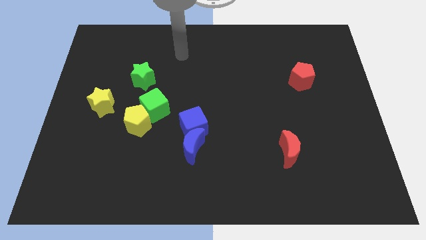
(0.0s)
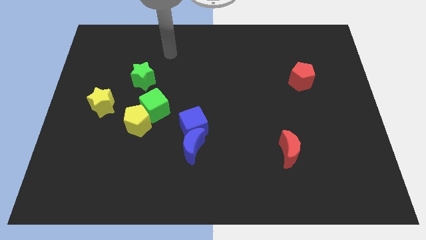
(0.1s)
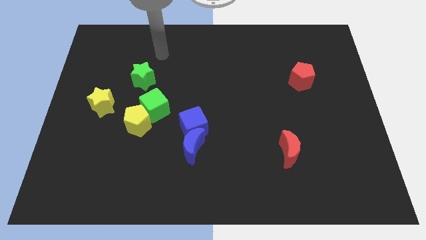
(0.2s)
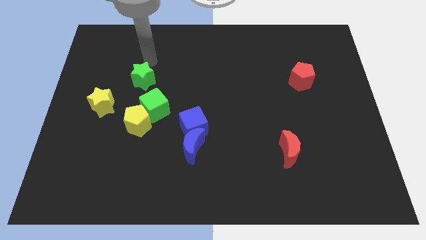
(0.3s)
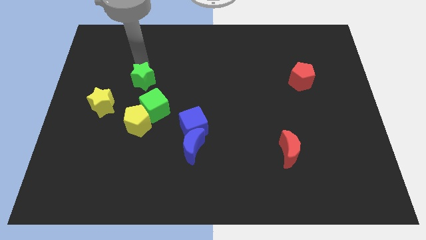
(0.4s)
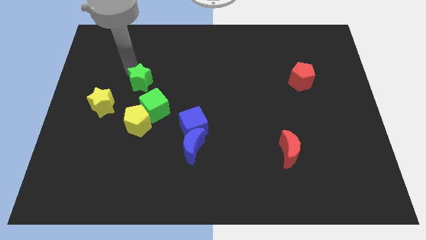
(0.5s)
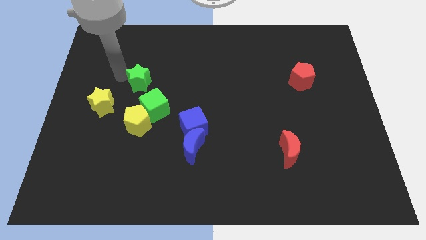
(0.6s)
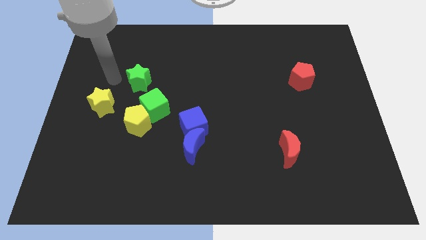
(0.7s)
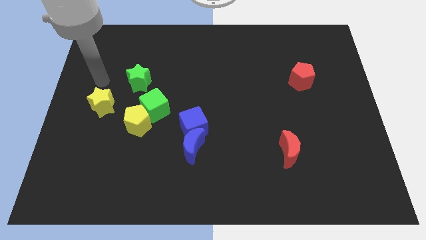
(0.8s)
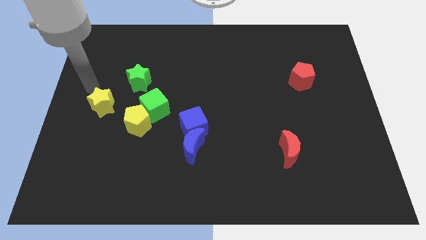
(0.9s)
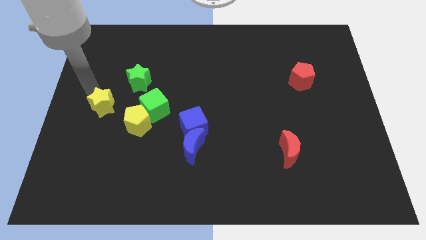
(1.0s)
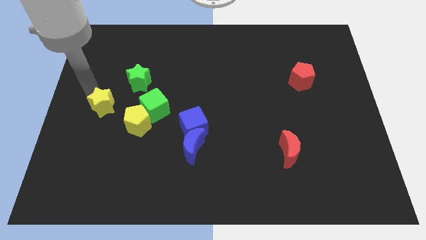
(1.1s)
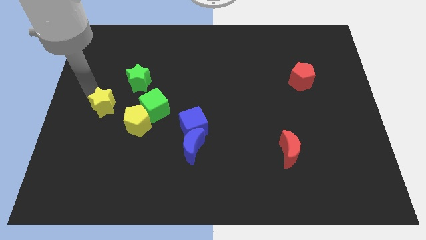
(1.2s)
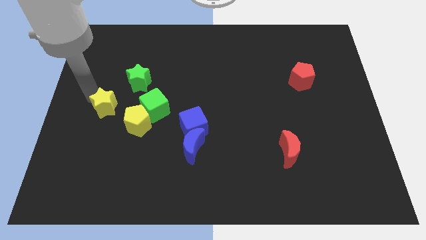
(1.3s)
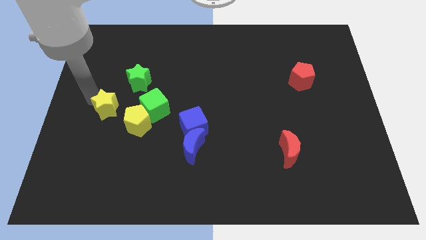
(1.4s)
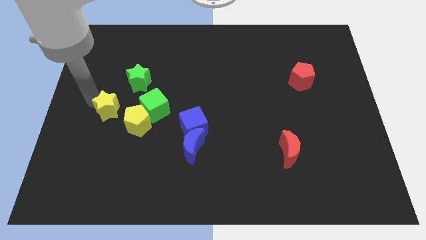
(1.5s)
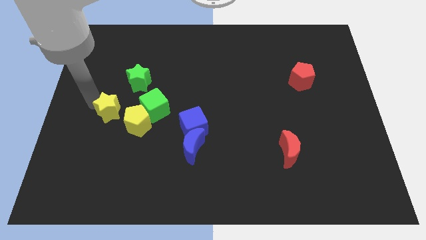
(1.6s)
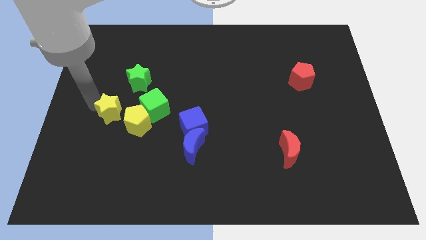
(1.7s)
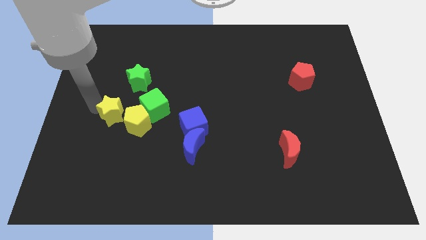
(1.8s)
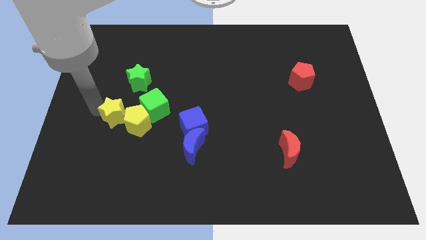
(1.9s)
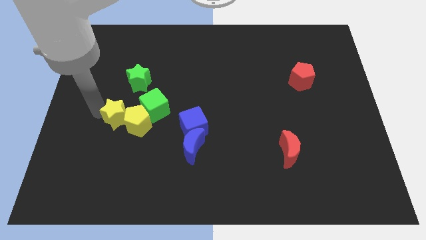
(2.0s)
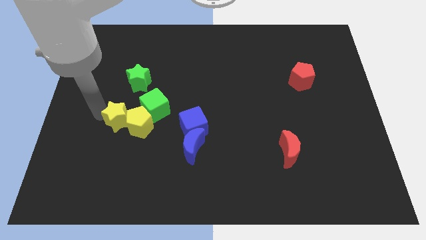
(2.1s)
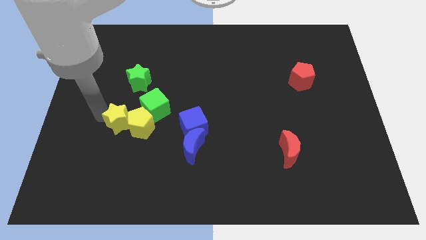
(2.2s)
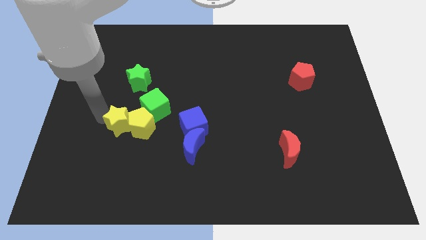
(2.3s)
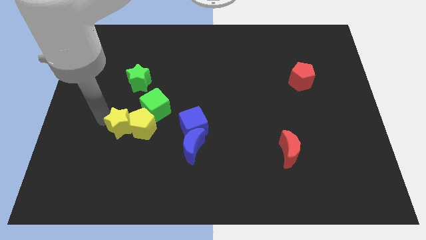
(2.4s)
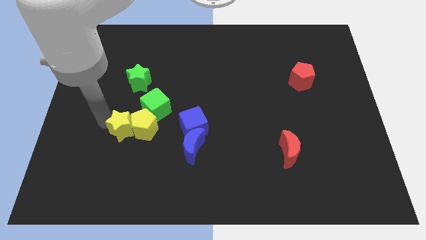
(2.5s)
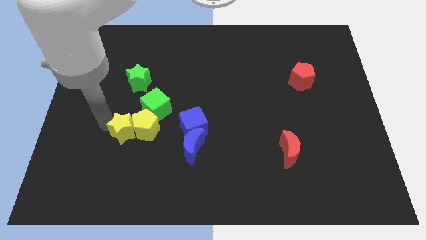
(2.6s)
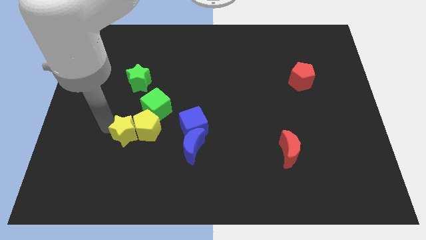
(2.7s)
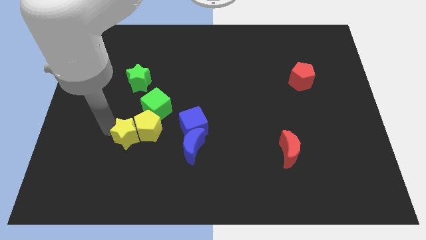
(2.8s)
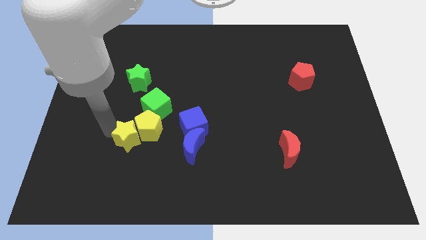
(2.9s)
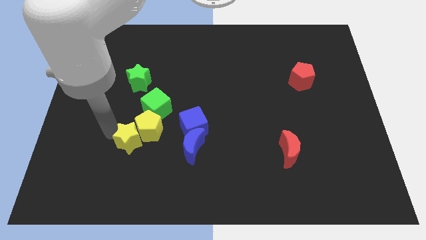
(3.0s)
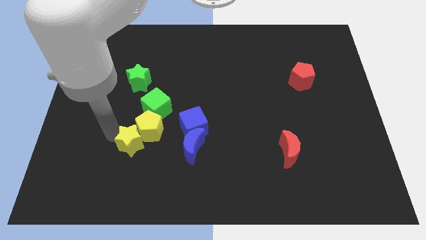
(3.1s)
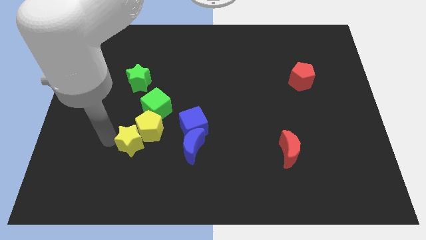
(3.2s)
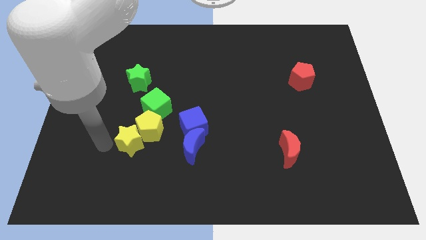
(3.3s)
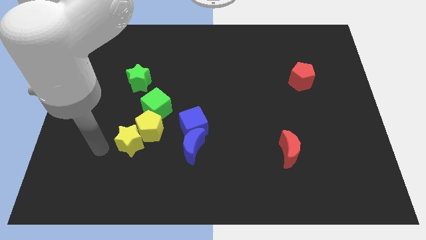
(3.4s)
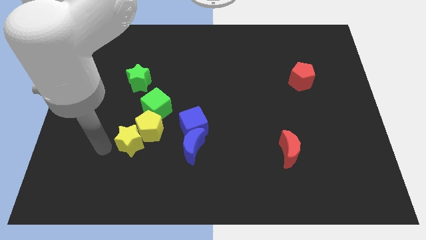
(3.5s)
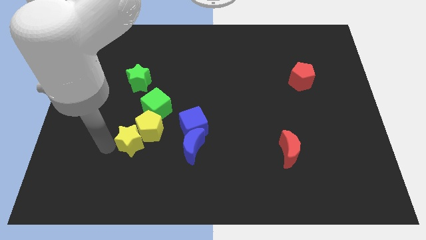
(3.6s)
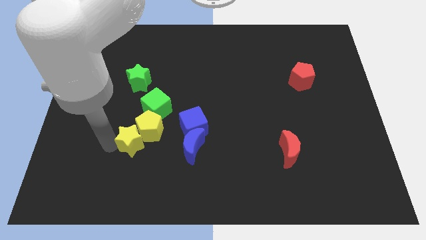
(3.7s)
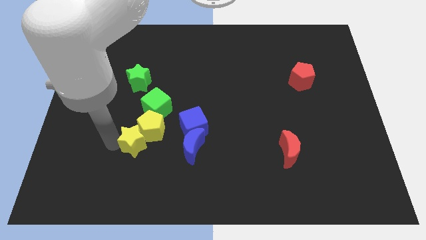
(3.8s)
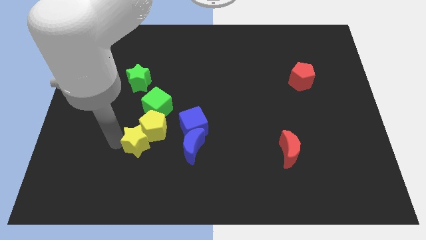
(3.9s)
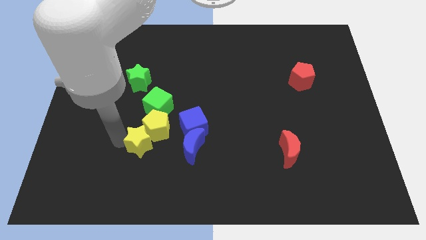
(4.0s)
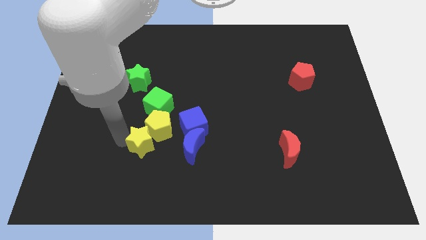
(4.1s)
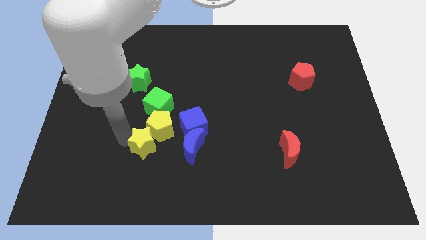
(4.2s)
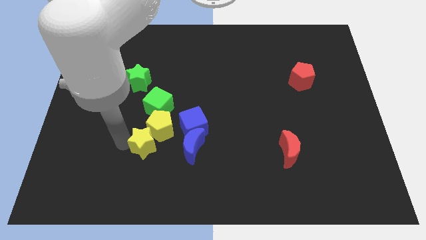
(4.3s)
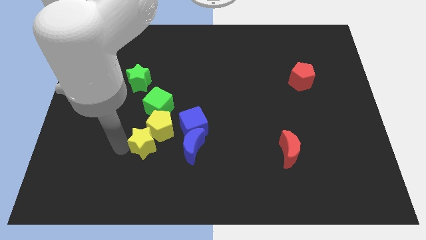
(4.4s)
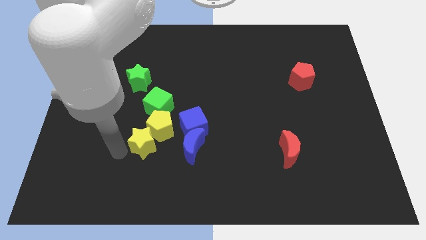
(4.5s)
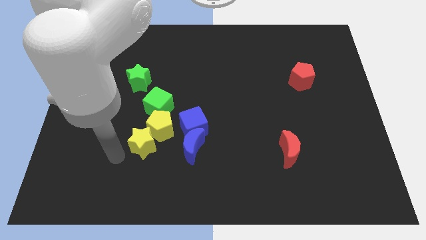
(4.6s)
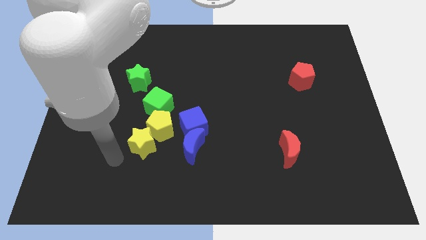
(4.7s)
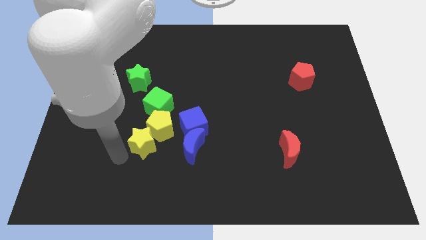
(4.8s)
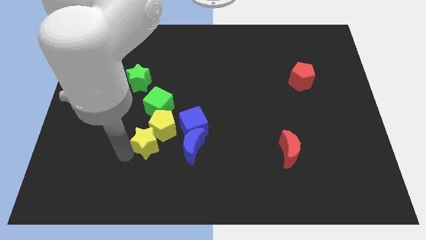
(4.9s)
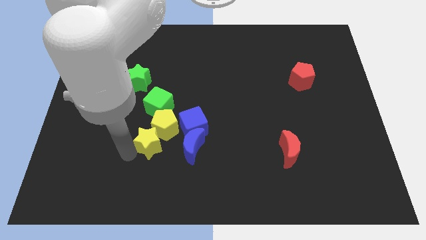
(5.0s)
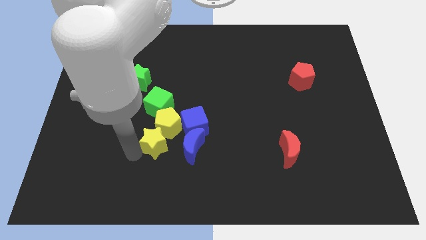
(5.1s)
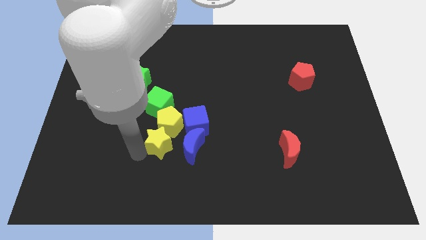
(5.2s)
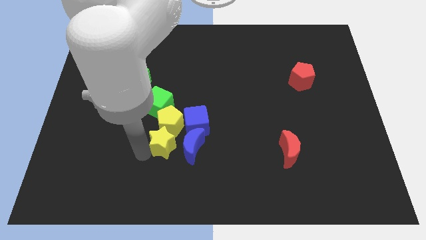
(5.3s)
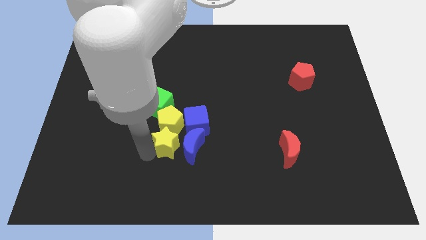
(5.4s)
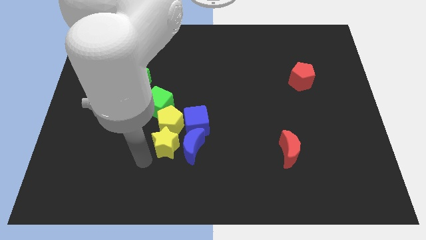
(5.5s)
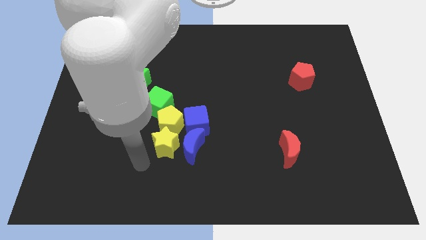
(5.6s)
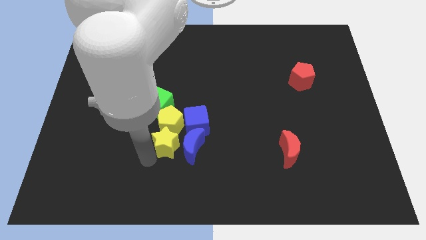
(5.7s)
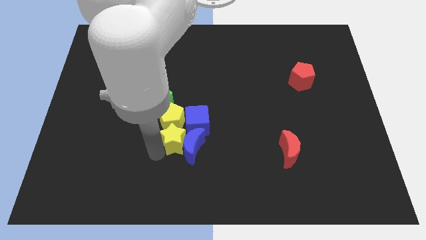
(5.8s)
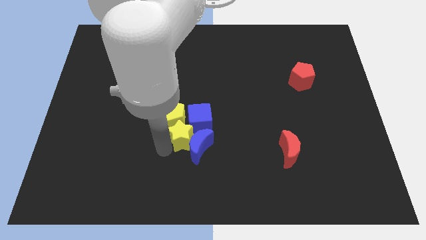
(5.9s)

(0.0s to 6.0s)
move the yellow star to the blue cube

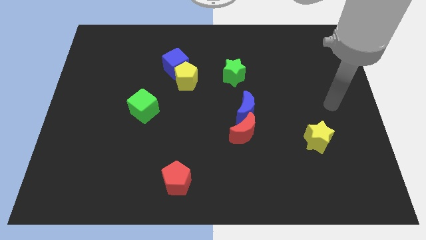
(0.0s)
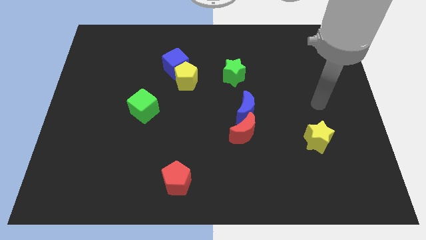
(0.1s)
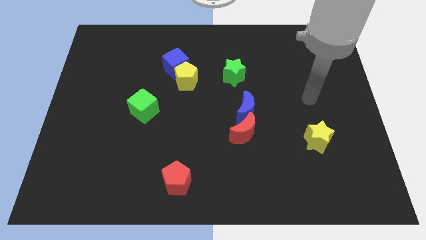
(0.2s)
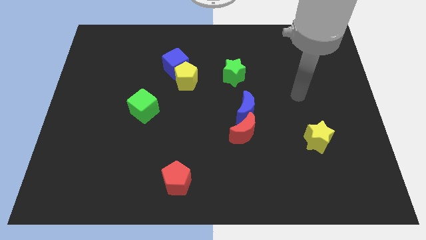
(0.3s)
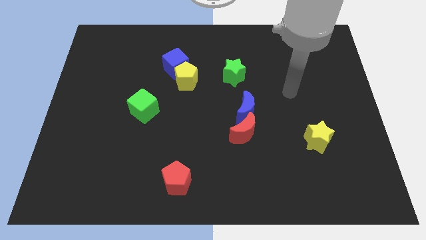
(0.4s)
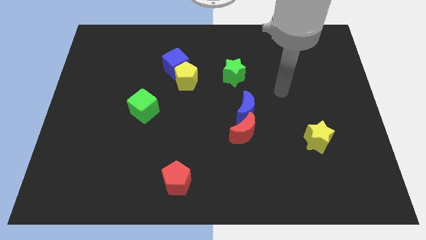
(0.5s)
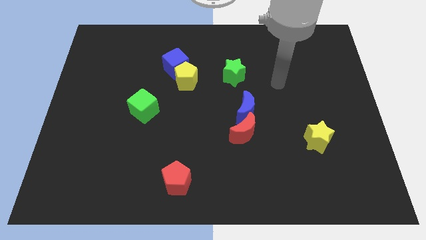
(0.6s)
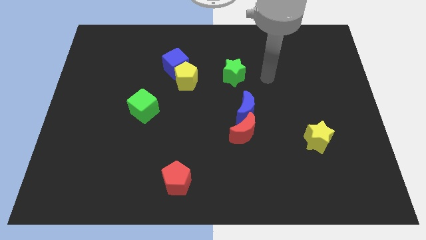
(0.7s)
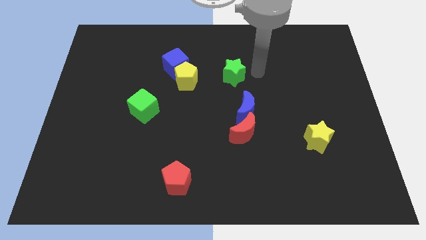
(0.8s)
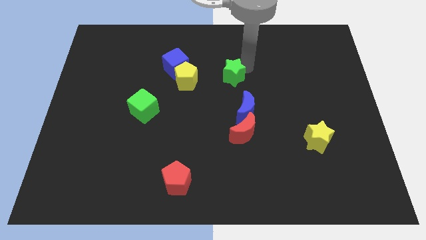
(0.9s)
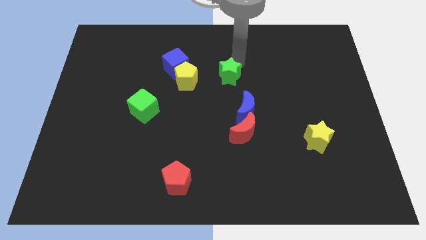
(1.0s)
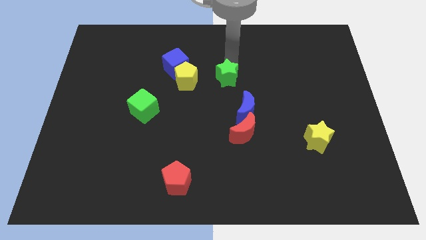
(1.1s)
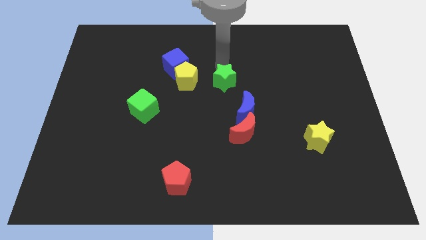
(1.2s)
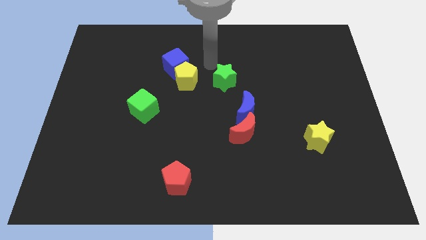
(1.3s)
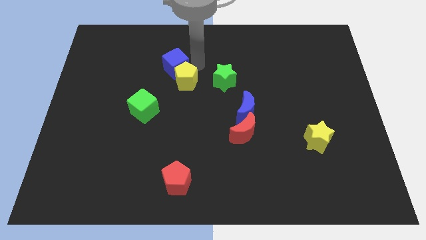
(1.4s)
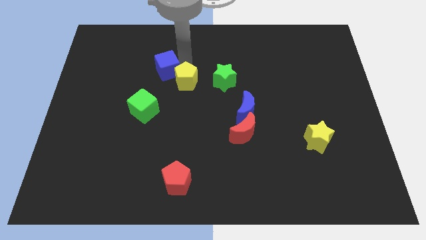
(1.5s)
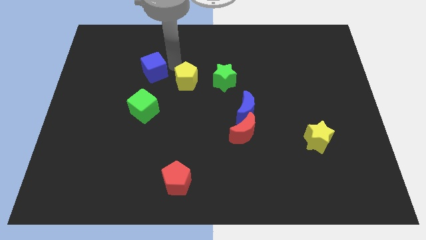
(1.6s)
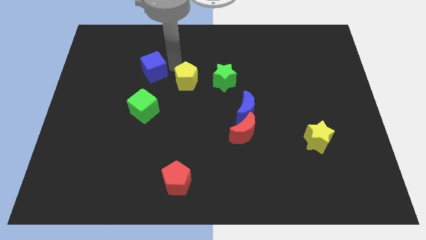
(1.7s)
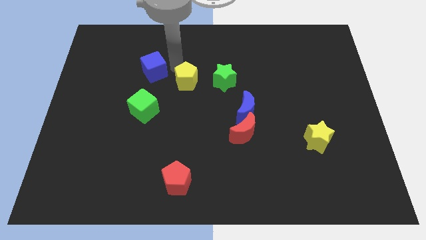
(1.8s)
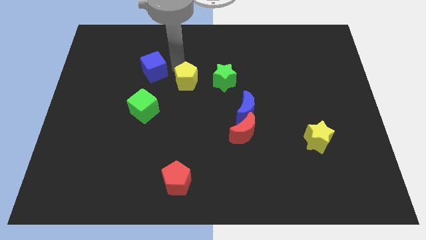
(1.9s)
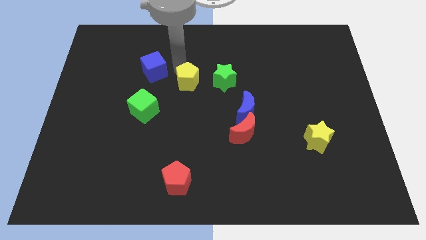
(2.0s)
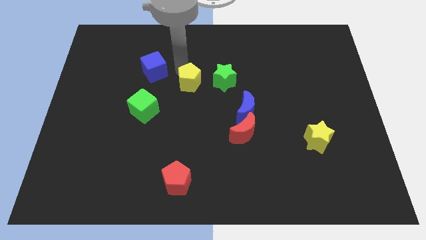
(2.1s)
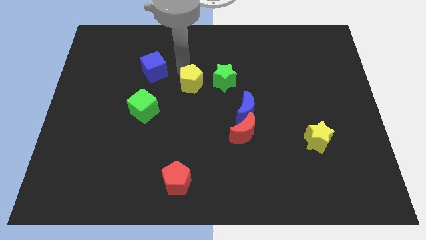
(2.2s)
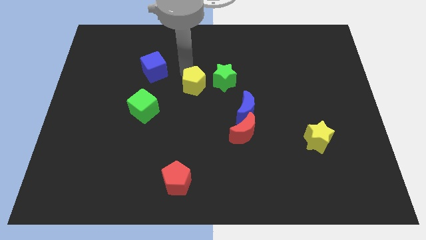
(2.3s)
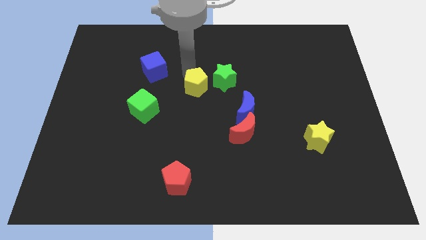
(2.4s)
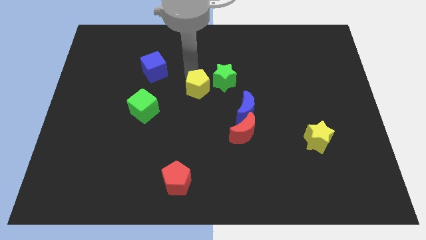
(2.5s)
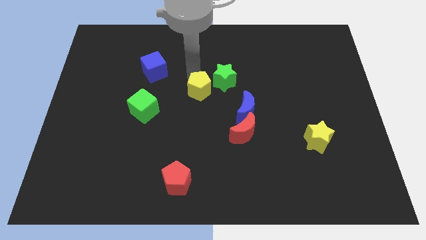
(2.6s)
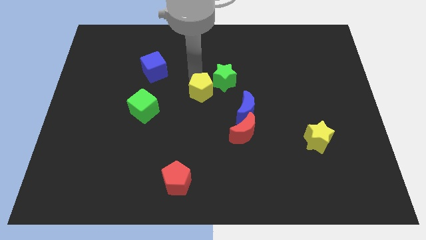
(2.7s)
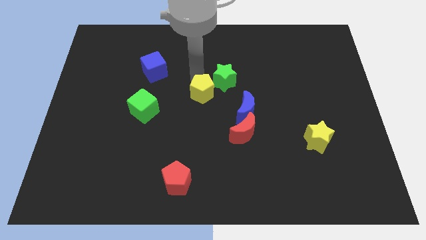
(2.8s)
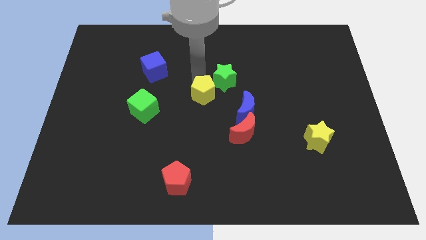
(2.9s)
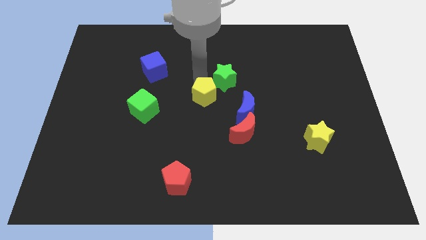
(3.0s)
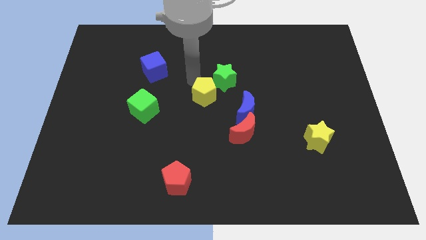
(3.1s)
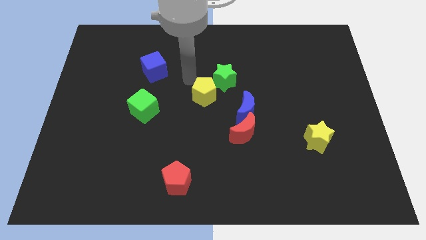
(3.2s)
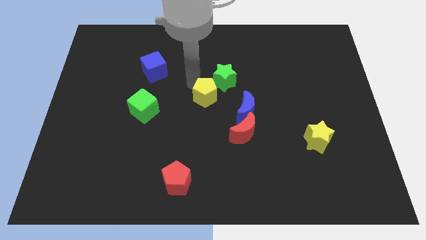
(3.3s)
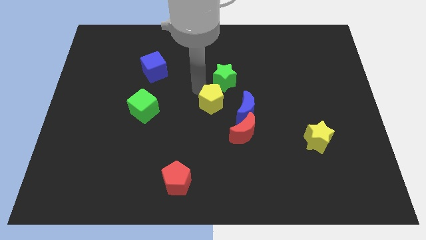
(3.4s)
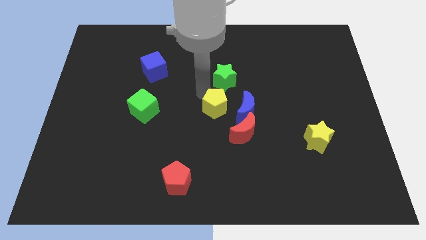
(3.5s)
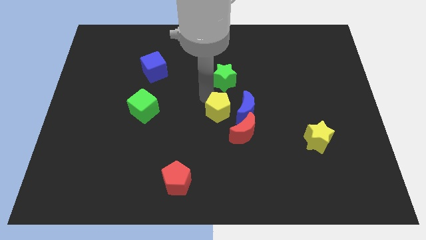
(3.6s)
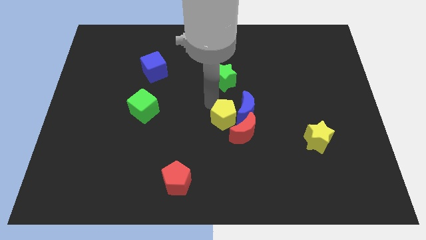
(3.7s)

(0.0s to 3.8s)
push the yellow pentagon next to the red moon
